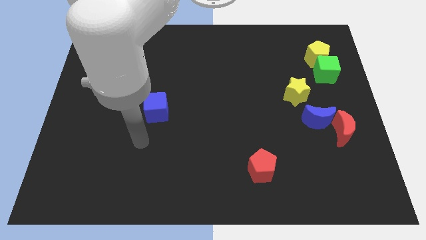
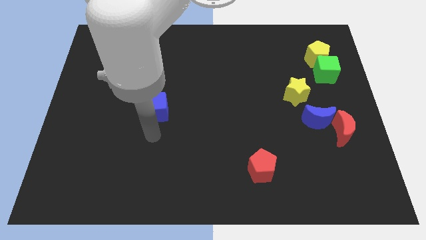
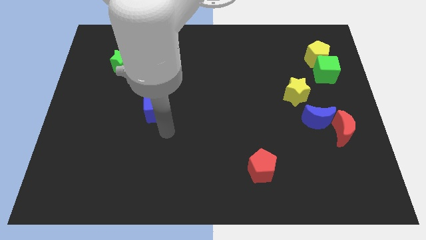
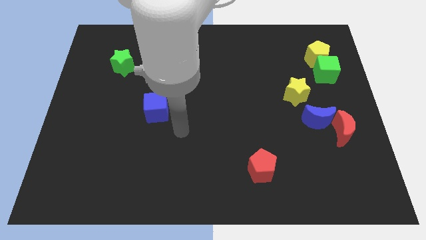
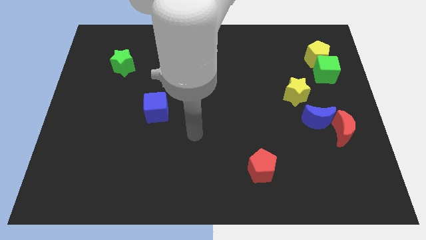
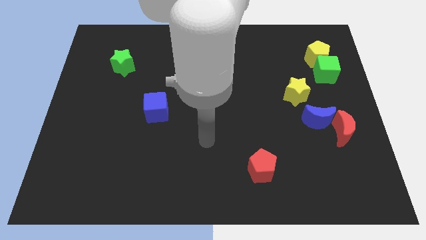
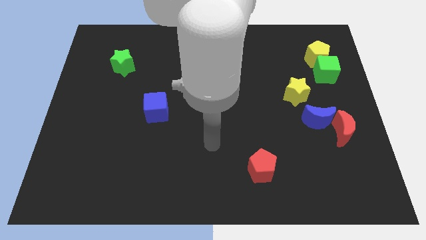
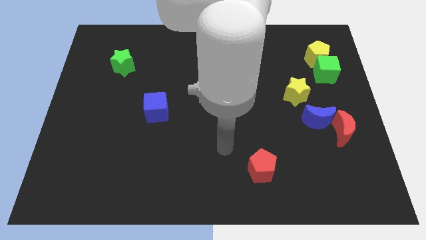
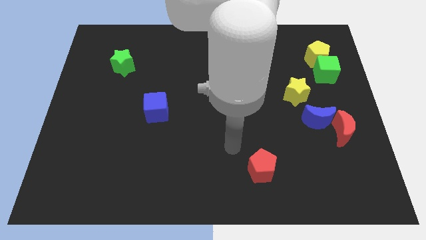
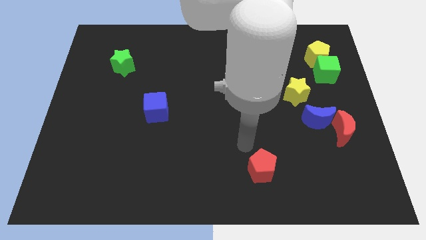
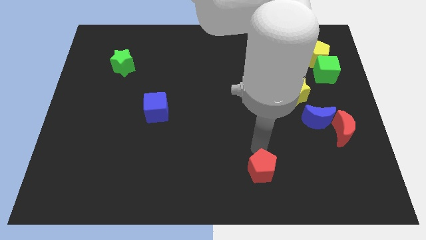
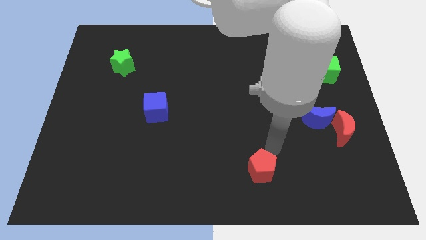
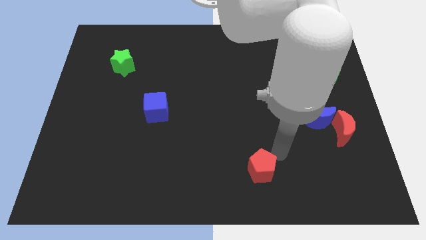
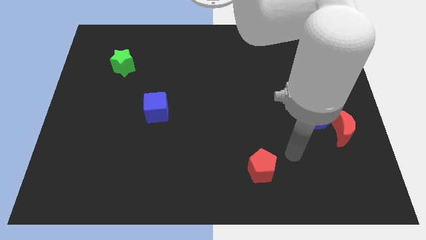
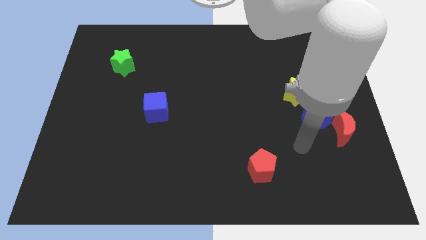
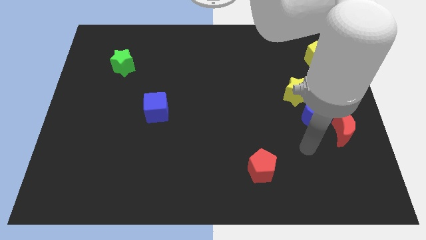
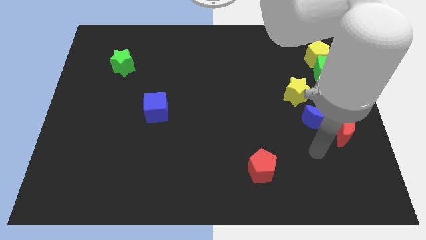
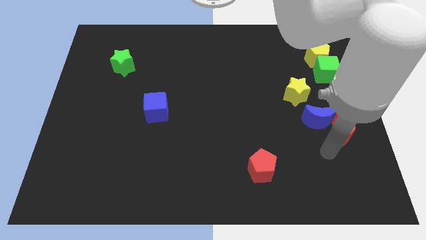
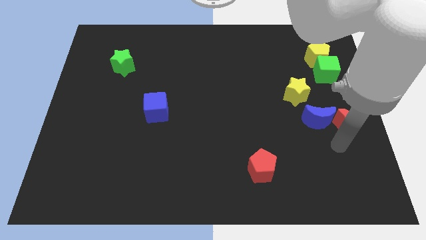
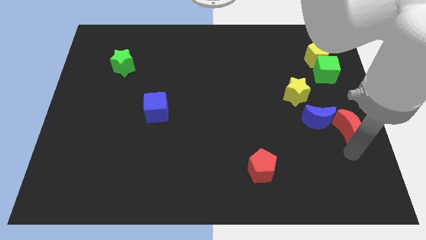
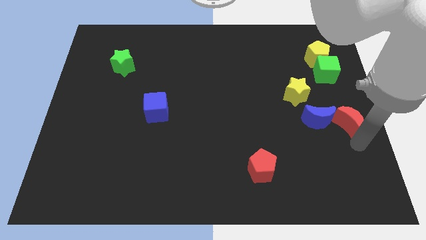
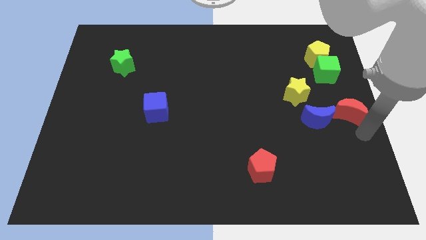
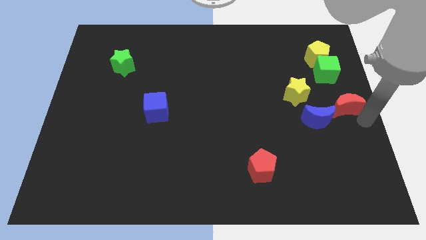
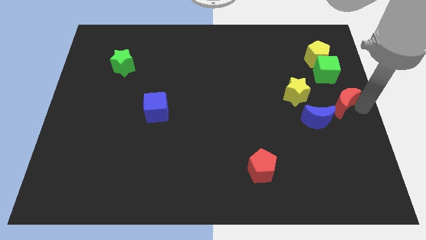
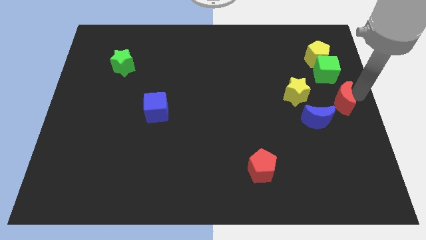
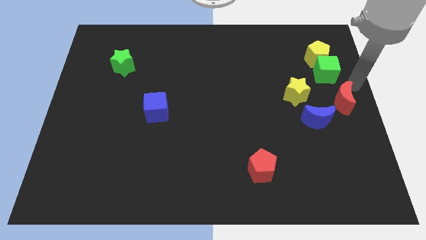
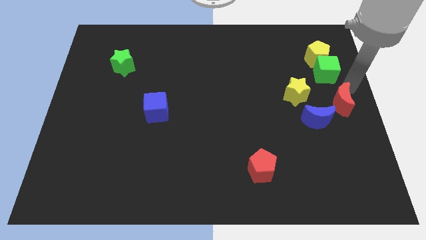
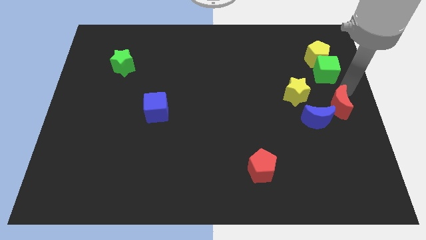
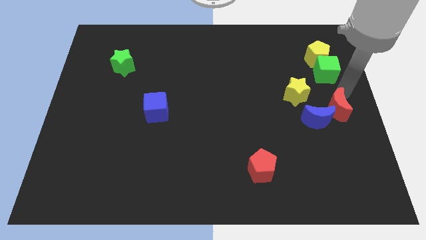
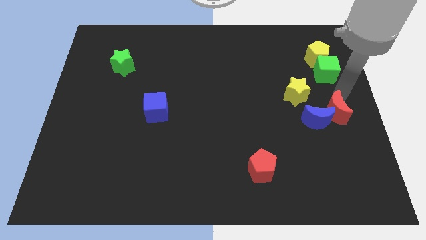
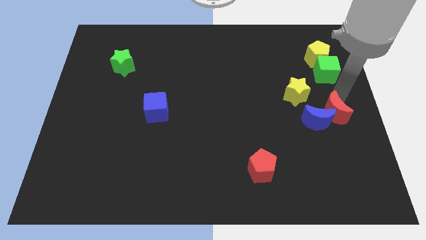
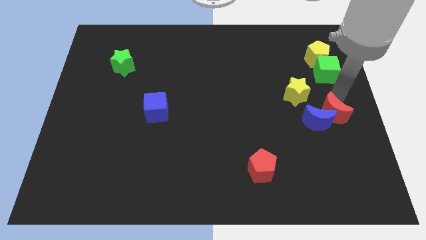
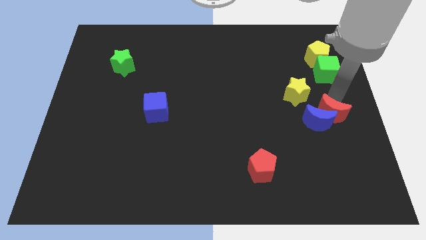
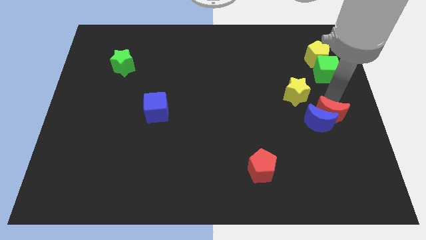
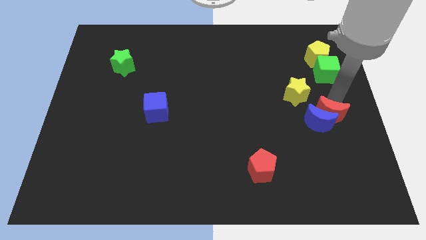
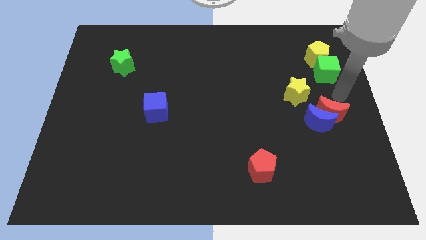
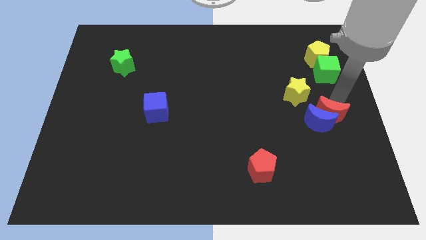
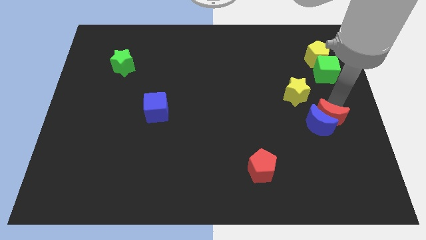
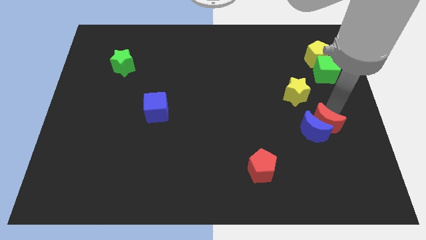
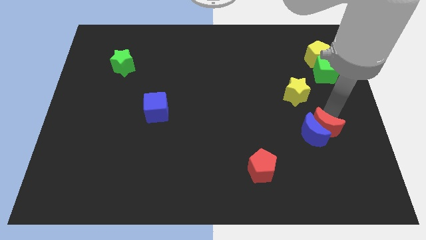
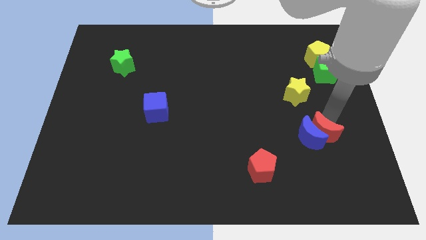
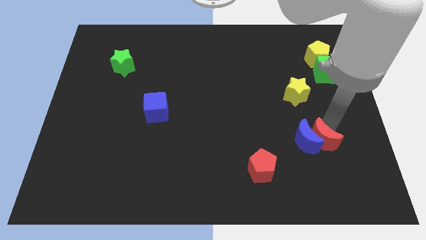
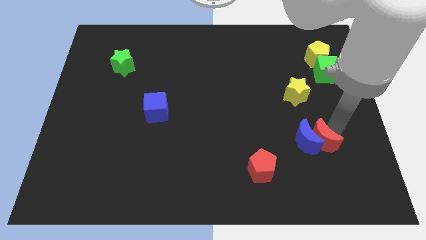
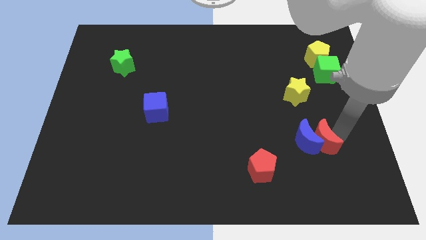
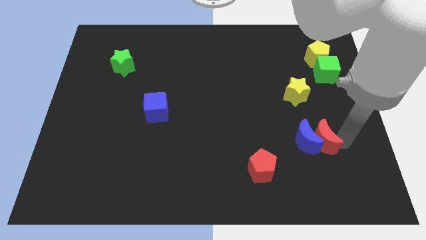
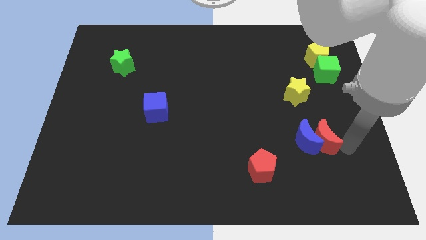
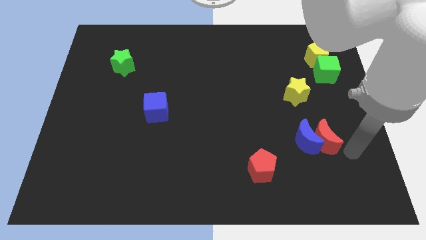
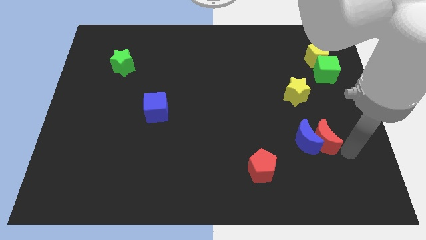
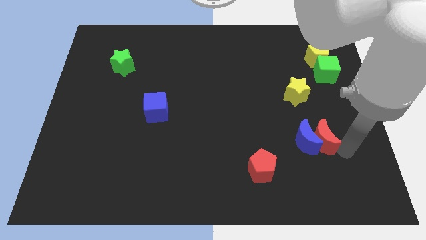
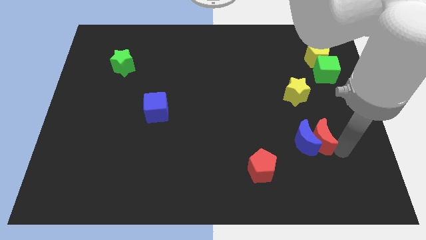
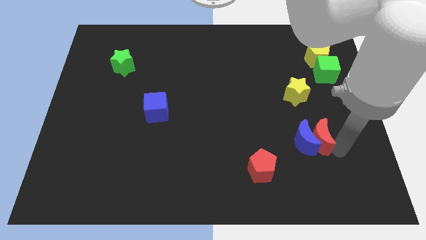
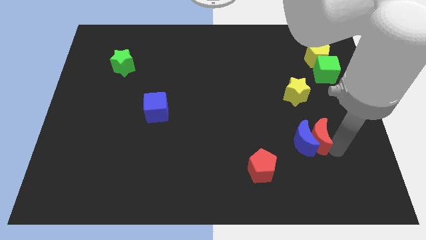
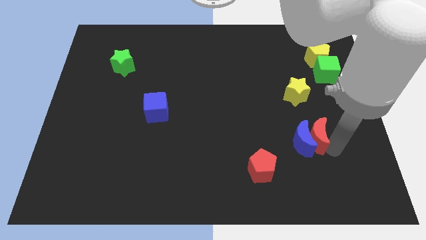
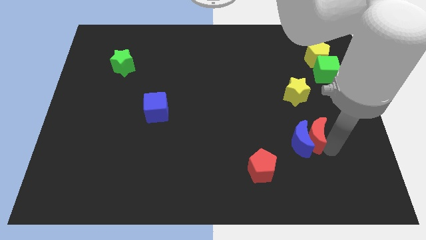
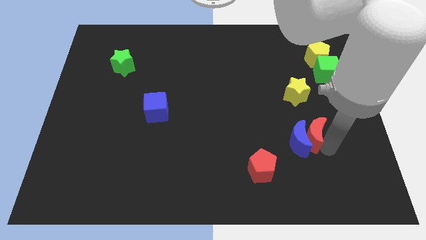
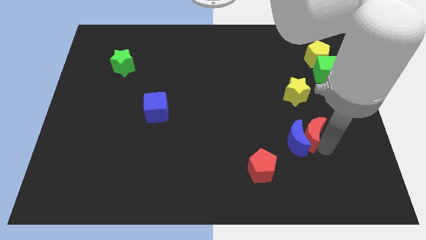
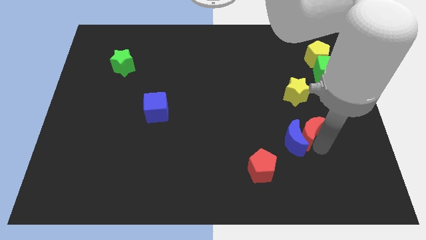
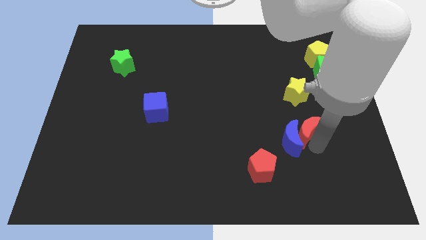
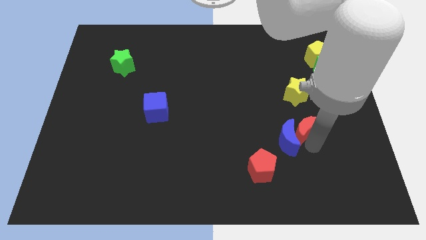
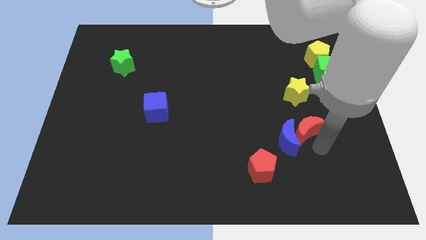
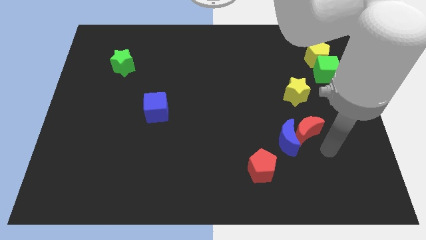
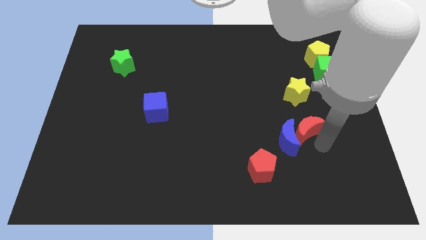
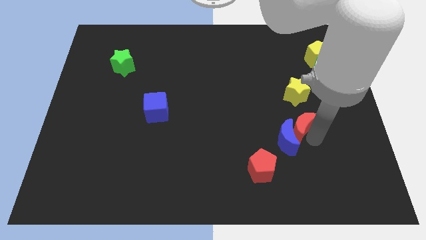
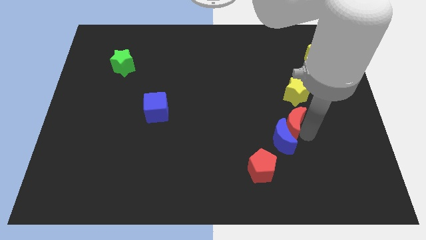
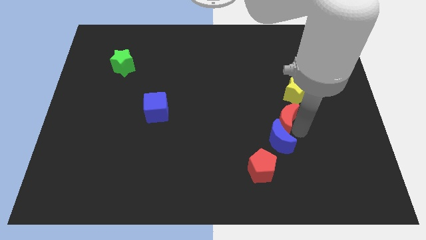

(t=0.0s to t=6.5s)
slide the red moon diagonally down and to the left of the yellow star
